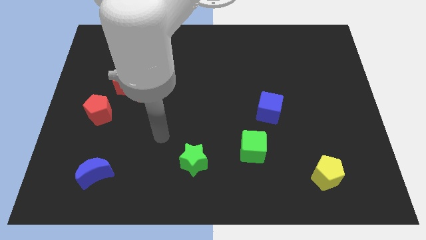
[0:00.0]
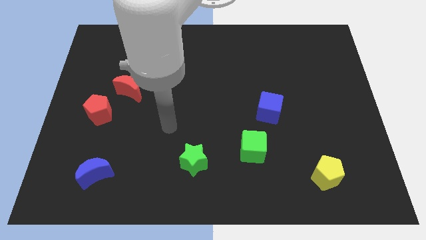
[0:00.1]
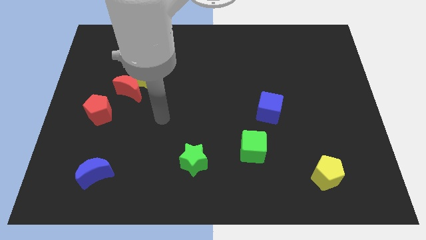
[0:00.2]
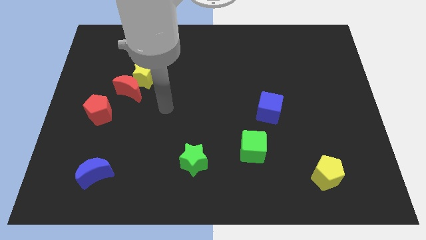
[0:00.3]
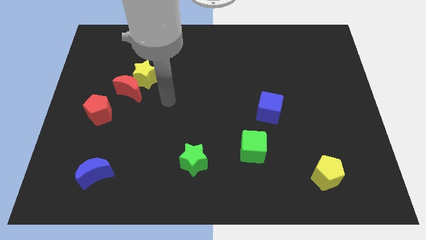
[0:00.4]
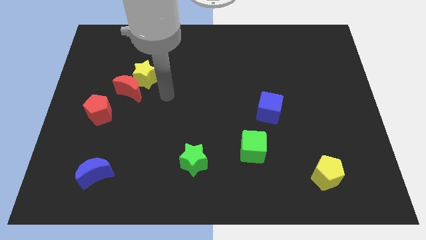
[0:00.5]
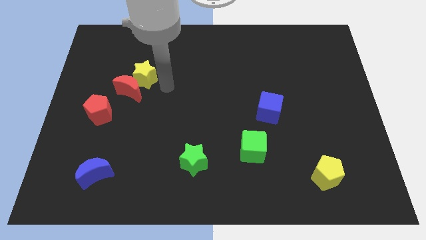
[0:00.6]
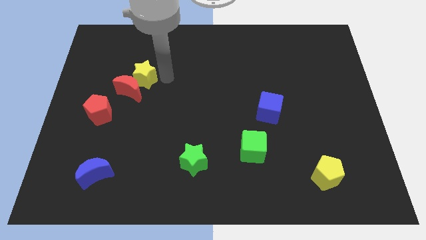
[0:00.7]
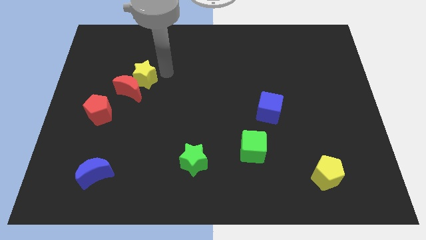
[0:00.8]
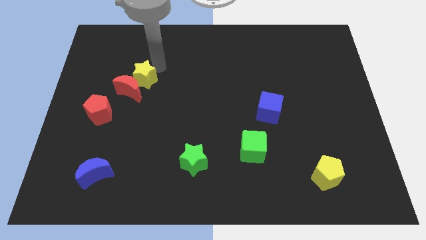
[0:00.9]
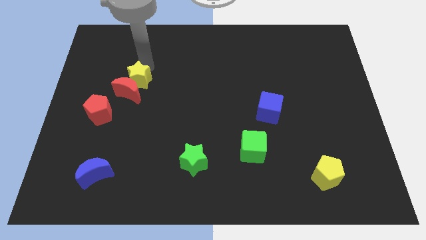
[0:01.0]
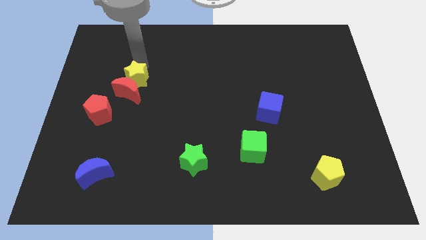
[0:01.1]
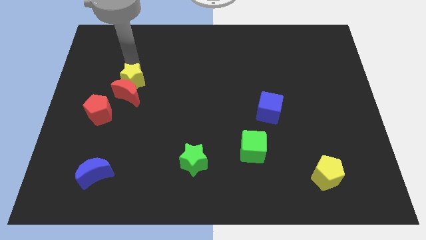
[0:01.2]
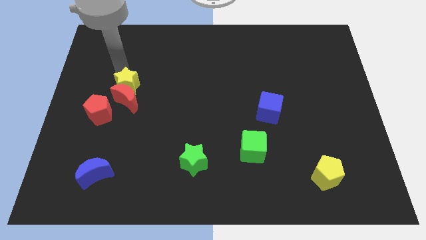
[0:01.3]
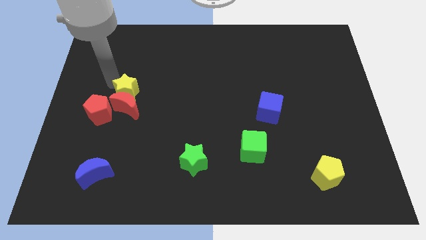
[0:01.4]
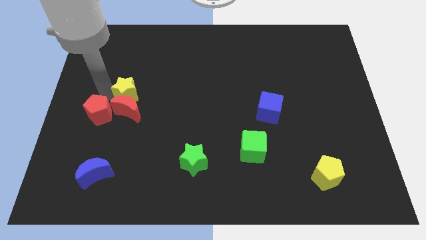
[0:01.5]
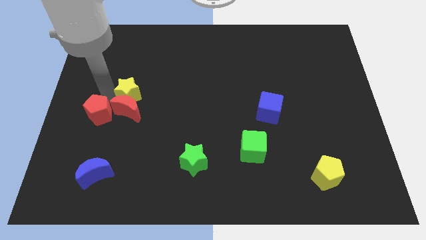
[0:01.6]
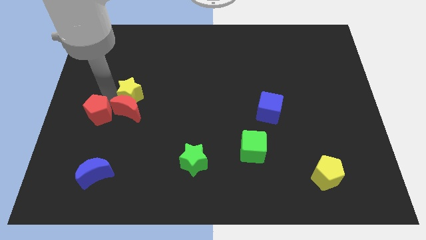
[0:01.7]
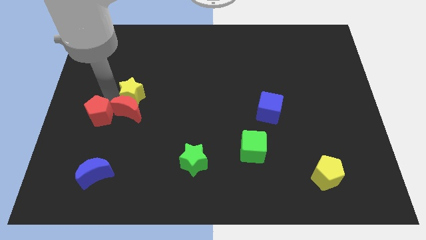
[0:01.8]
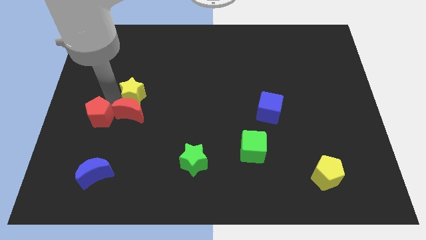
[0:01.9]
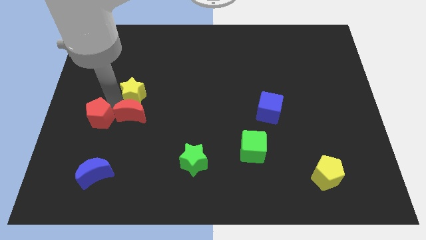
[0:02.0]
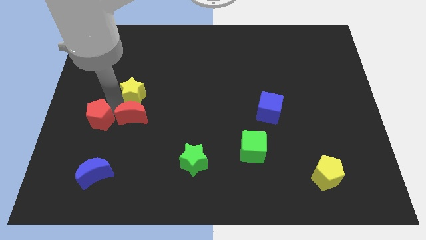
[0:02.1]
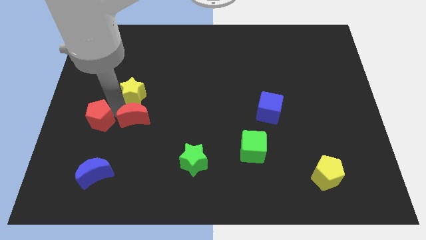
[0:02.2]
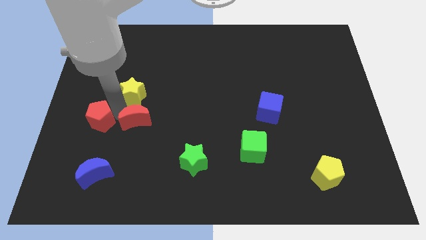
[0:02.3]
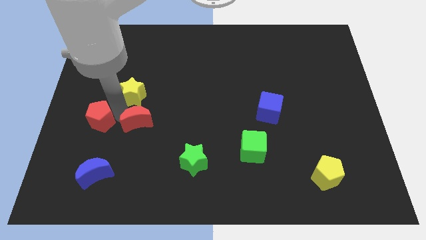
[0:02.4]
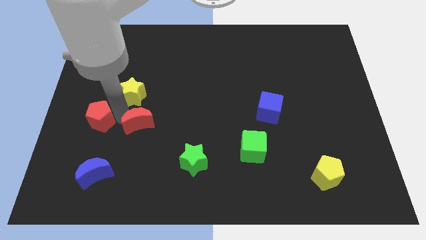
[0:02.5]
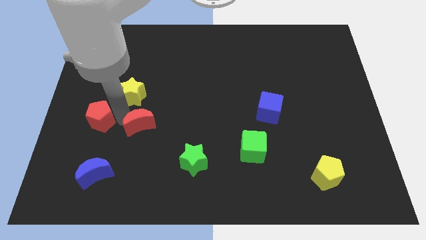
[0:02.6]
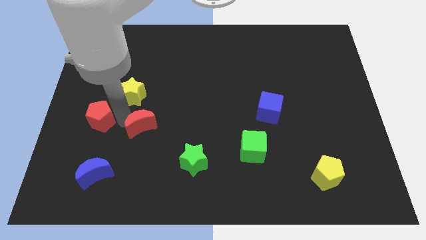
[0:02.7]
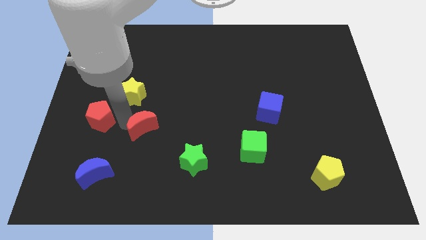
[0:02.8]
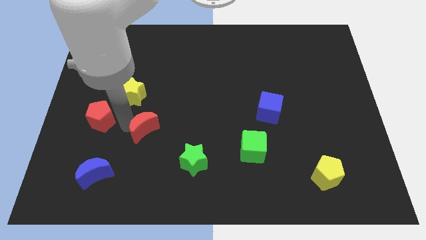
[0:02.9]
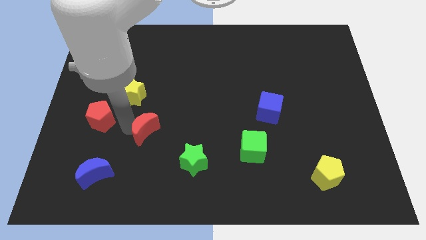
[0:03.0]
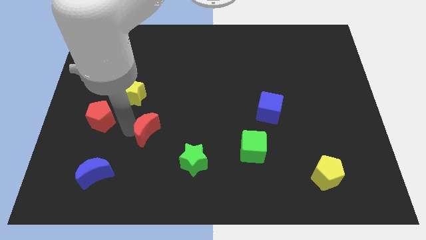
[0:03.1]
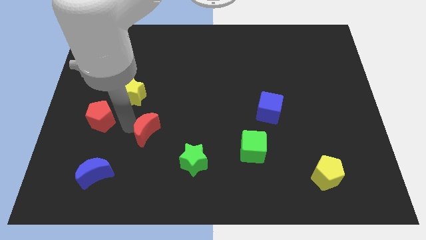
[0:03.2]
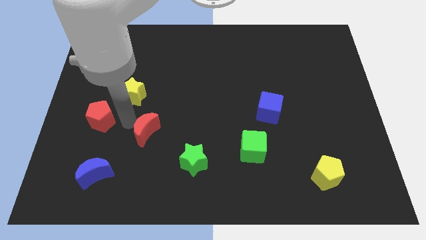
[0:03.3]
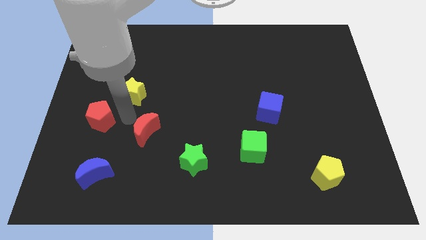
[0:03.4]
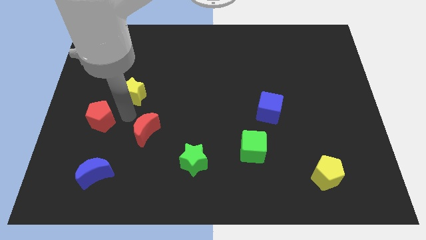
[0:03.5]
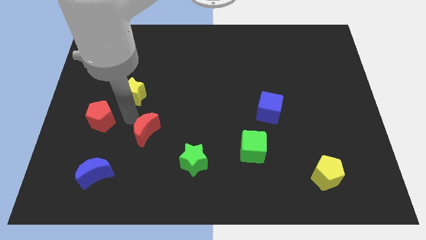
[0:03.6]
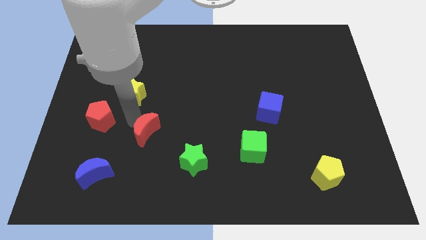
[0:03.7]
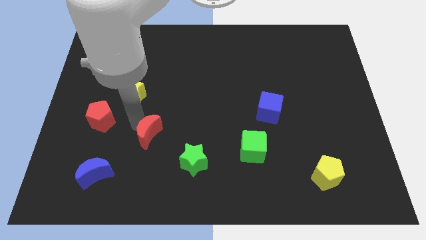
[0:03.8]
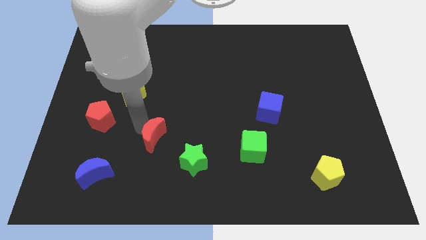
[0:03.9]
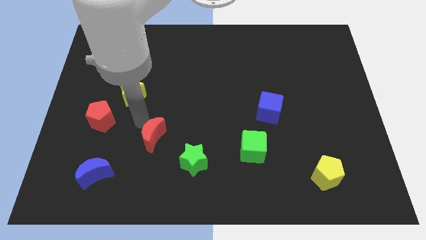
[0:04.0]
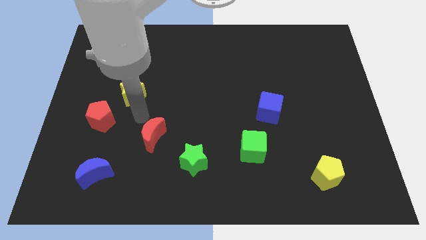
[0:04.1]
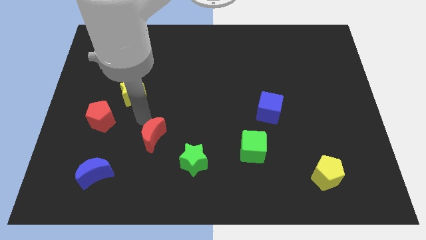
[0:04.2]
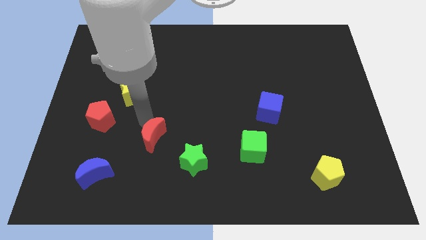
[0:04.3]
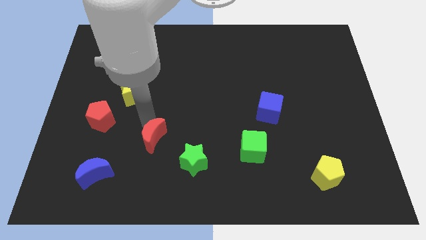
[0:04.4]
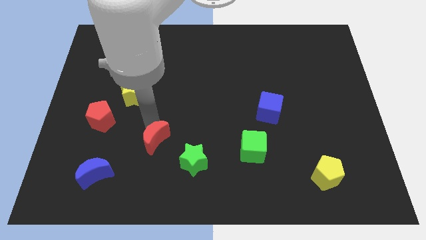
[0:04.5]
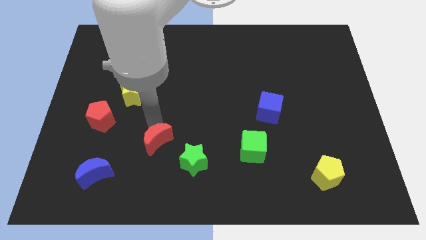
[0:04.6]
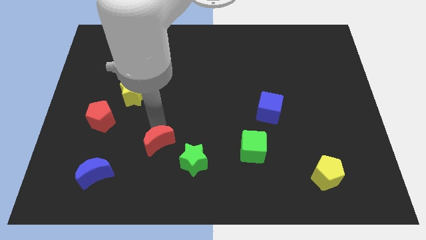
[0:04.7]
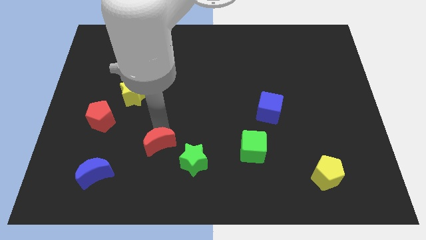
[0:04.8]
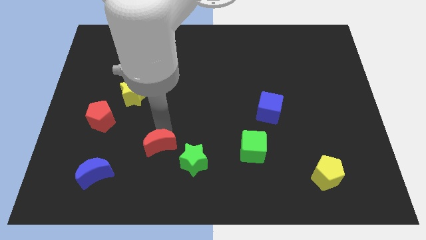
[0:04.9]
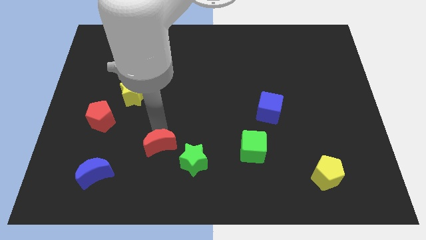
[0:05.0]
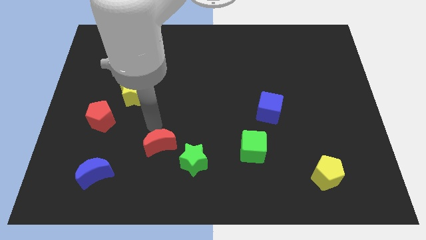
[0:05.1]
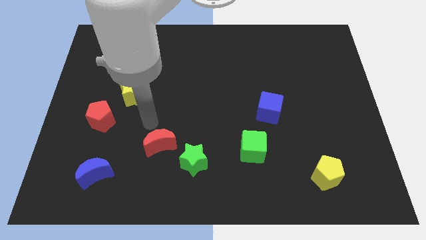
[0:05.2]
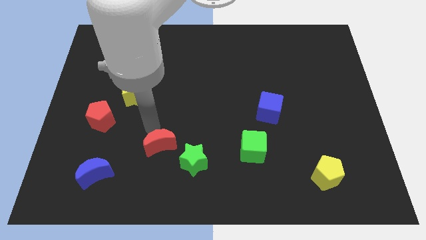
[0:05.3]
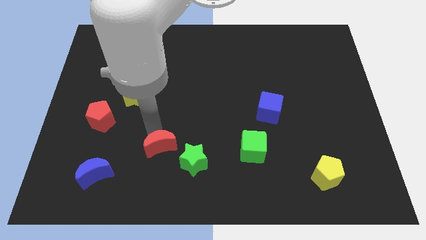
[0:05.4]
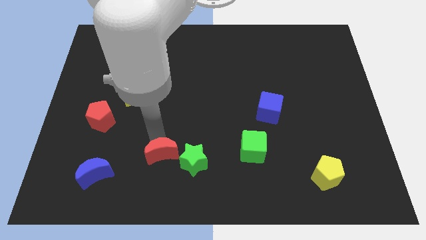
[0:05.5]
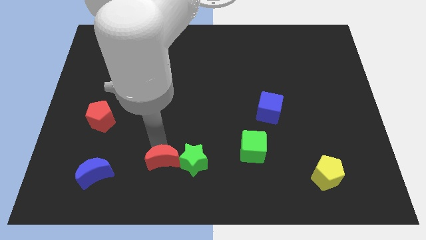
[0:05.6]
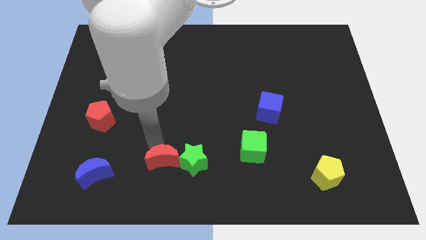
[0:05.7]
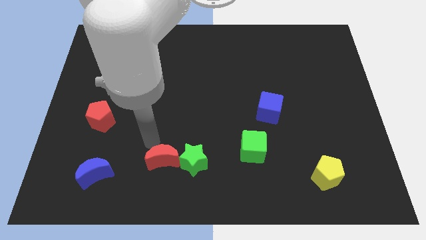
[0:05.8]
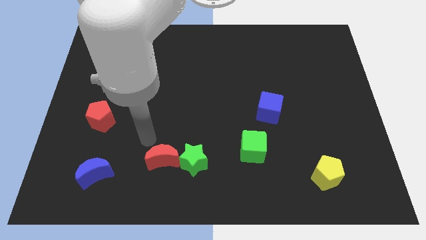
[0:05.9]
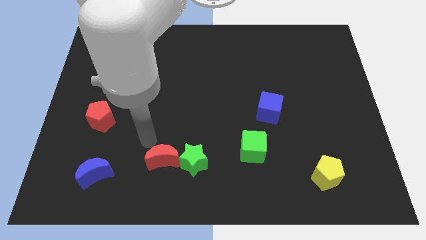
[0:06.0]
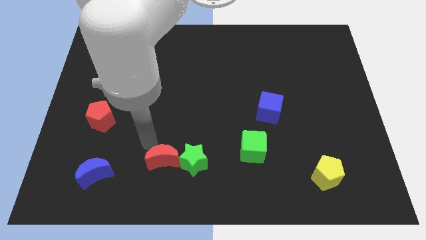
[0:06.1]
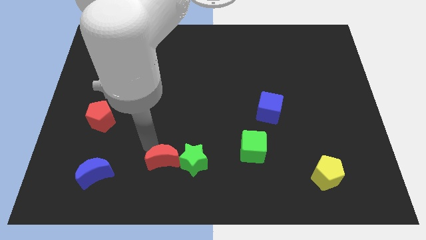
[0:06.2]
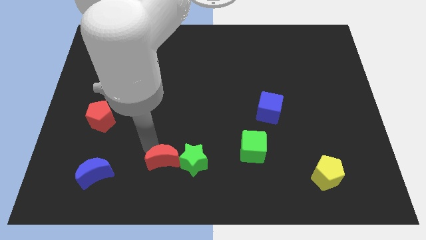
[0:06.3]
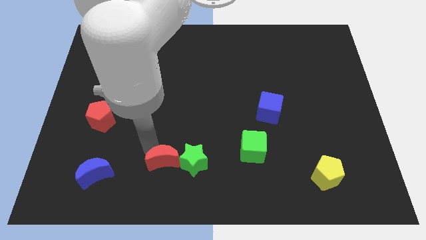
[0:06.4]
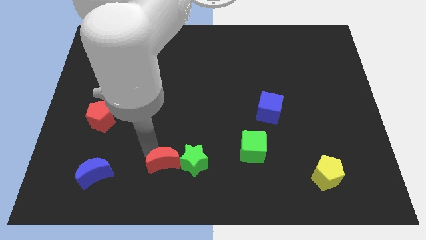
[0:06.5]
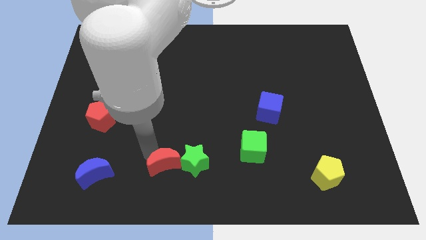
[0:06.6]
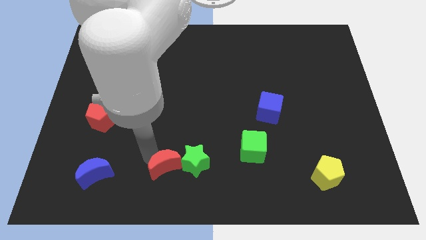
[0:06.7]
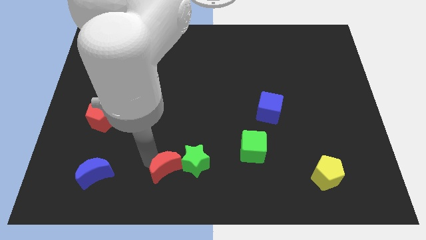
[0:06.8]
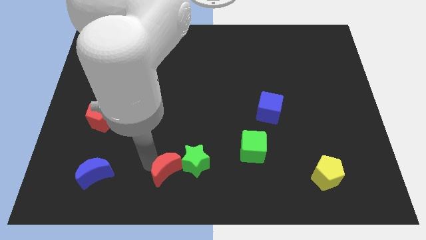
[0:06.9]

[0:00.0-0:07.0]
move the red moon to the bottom side
